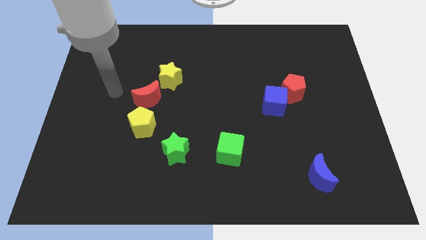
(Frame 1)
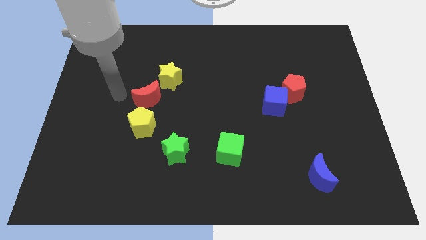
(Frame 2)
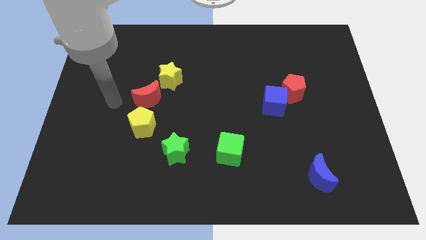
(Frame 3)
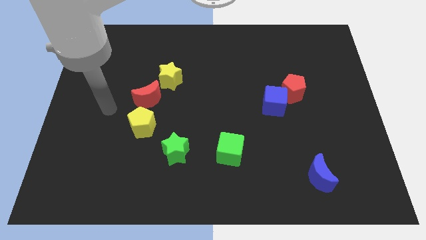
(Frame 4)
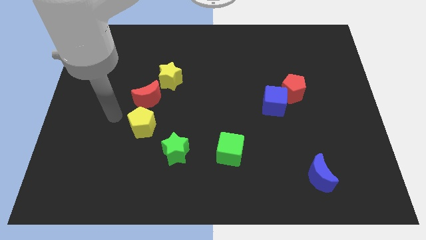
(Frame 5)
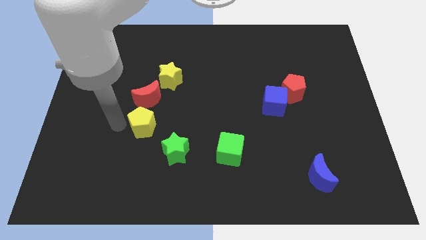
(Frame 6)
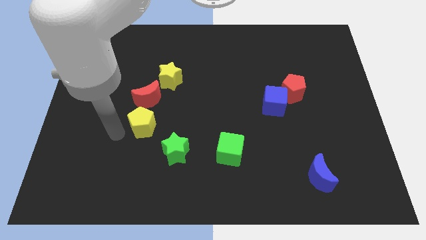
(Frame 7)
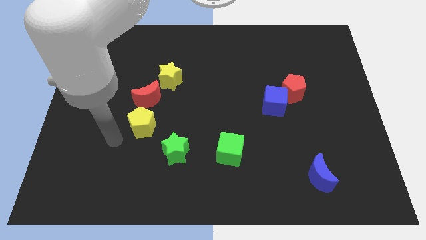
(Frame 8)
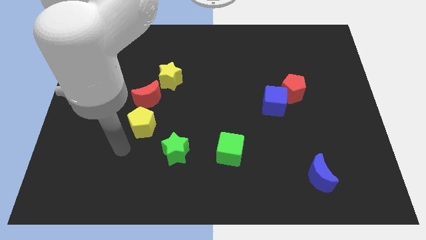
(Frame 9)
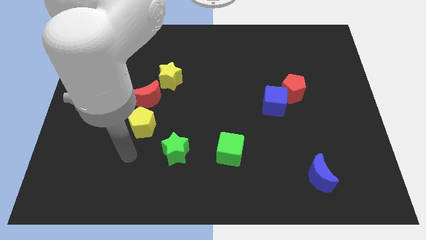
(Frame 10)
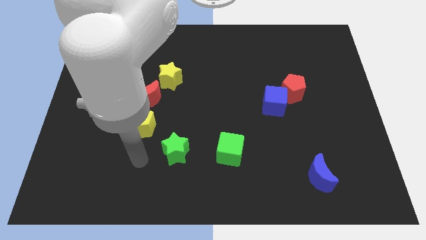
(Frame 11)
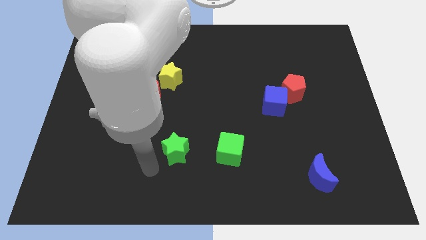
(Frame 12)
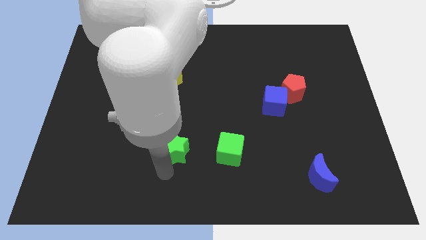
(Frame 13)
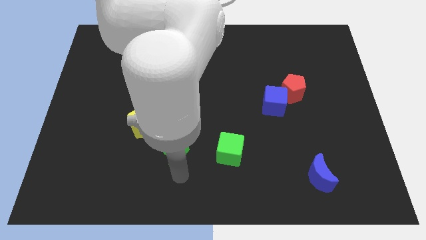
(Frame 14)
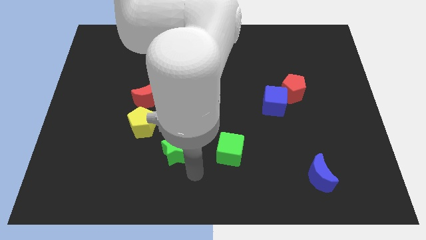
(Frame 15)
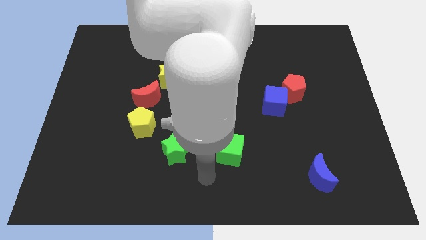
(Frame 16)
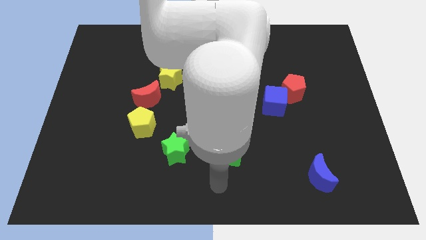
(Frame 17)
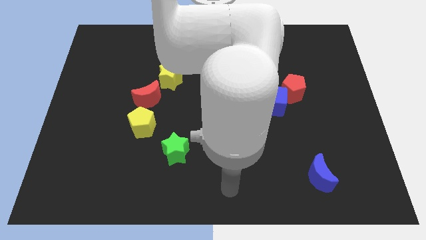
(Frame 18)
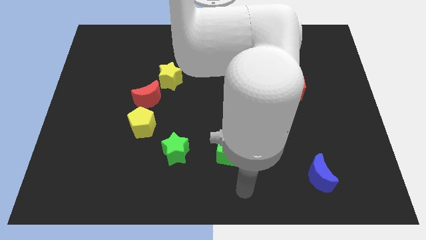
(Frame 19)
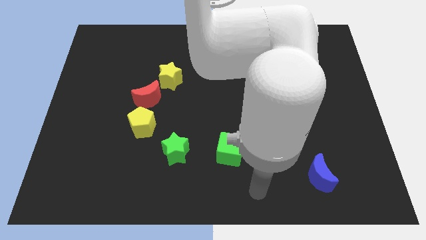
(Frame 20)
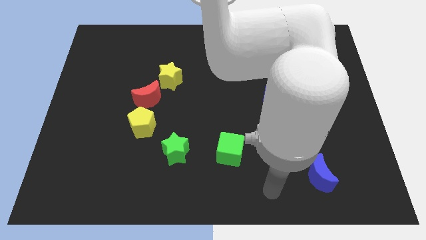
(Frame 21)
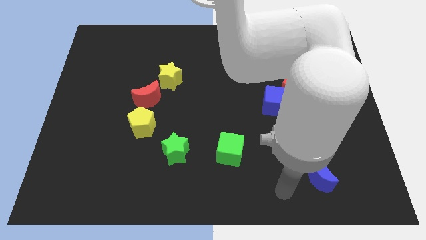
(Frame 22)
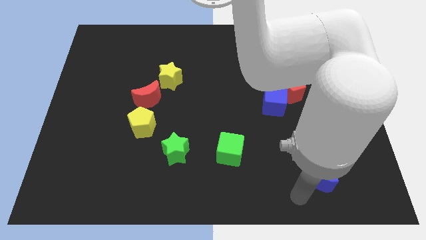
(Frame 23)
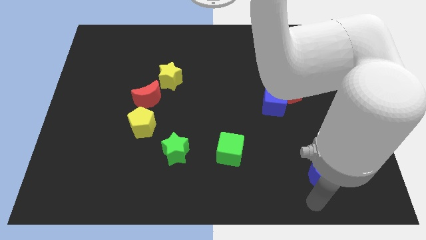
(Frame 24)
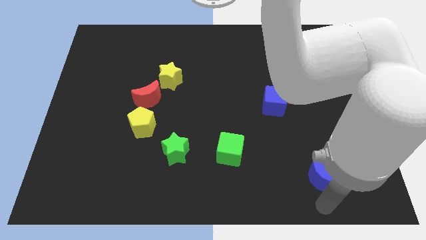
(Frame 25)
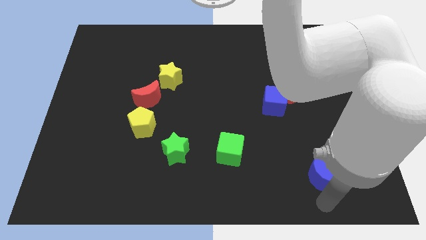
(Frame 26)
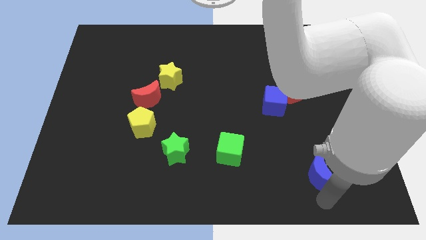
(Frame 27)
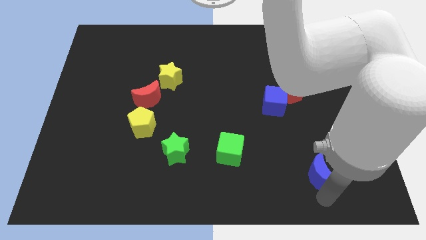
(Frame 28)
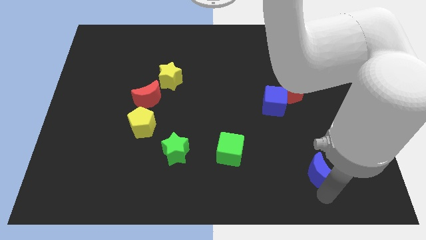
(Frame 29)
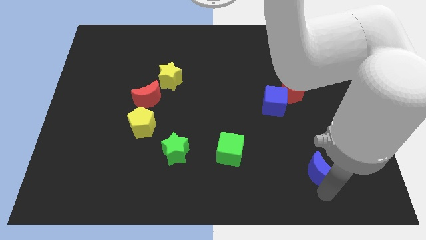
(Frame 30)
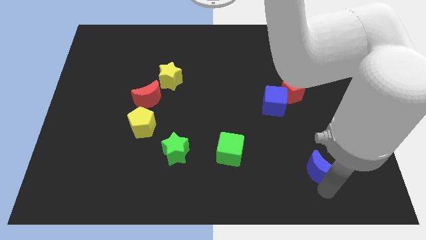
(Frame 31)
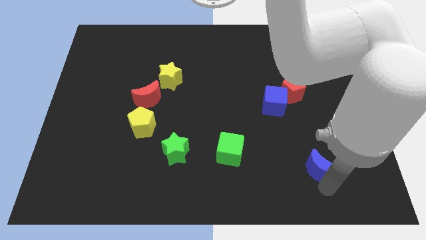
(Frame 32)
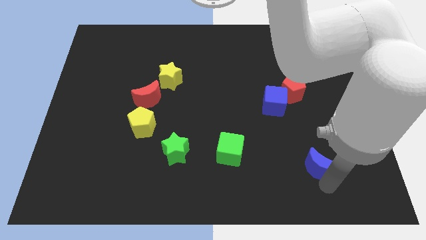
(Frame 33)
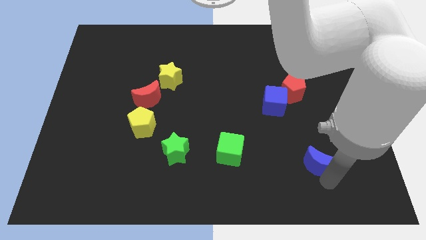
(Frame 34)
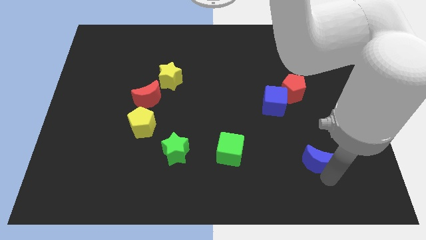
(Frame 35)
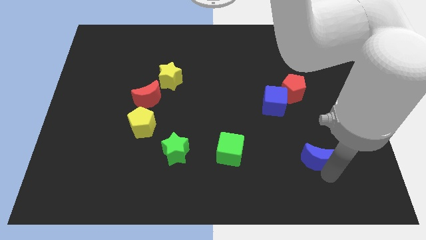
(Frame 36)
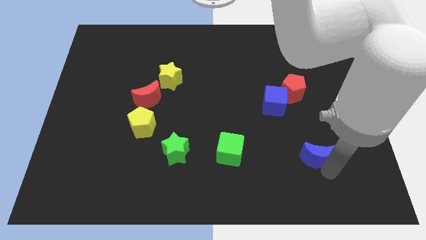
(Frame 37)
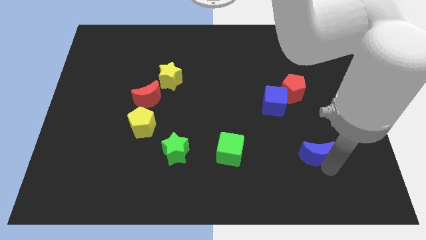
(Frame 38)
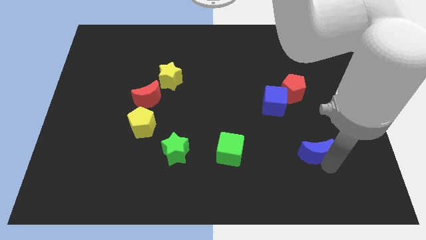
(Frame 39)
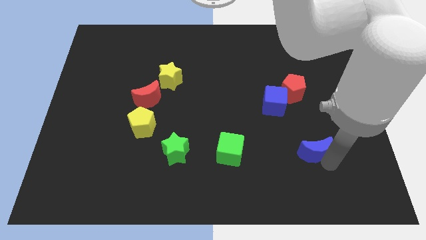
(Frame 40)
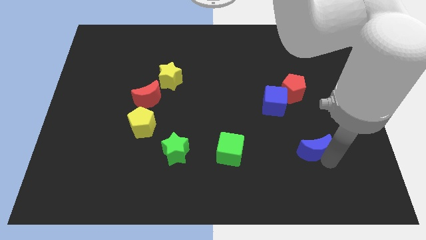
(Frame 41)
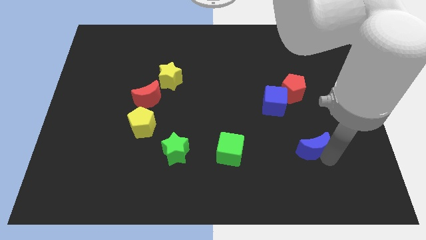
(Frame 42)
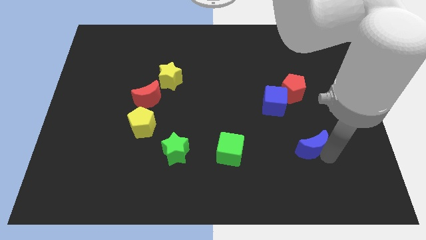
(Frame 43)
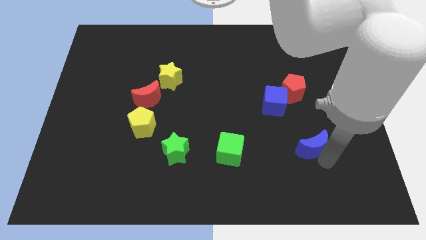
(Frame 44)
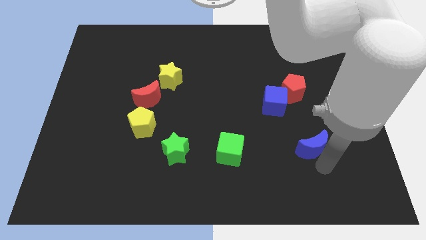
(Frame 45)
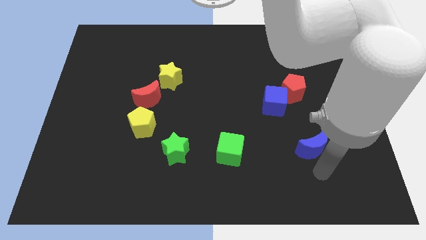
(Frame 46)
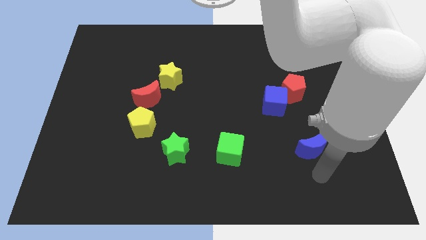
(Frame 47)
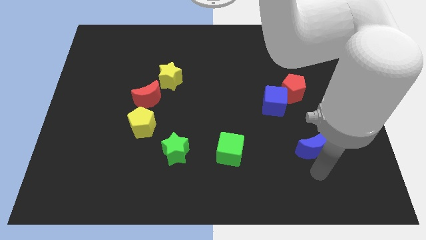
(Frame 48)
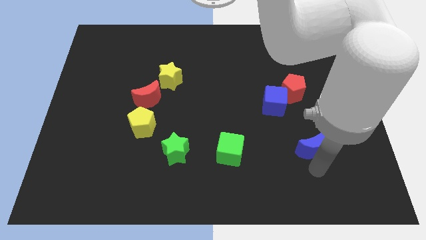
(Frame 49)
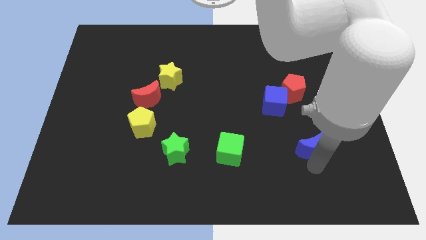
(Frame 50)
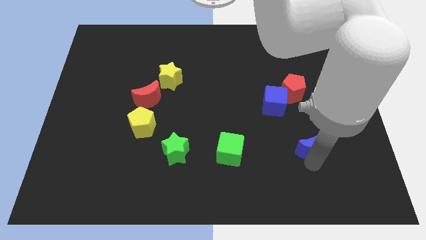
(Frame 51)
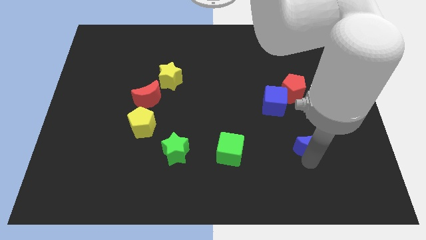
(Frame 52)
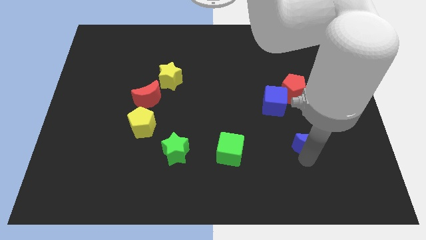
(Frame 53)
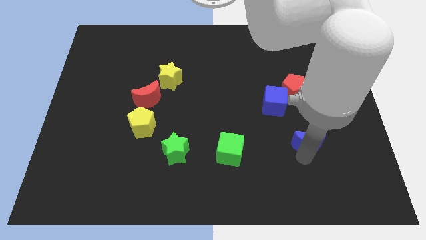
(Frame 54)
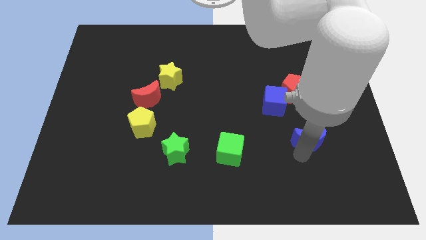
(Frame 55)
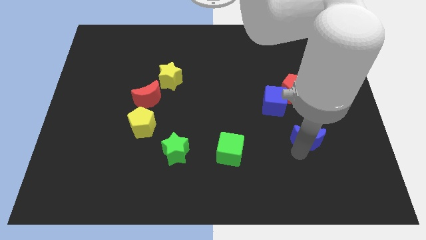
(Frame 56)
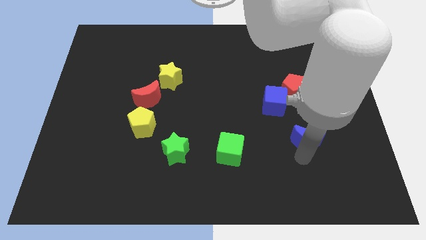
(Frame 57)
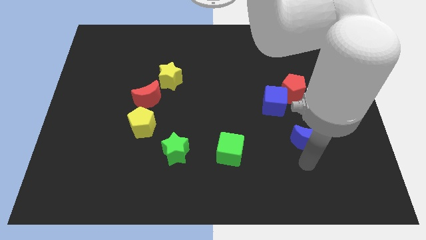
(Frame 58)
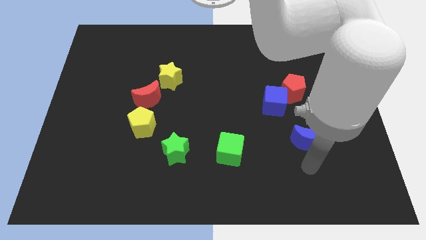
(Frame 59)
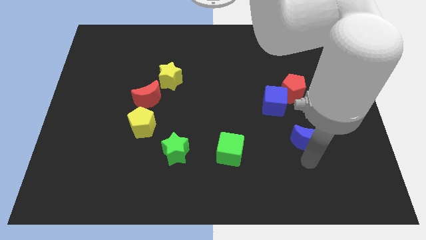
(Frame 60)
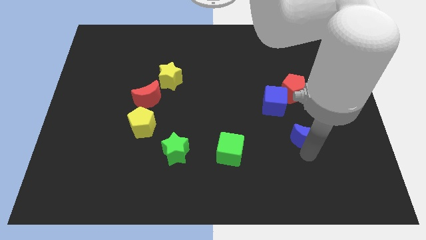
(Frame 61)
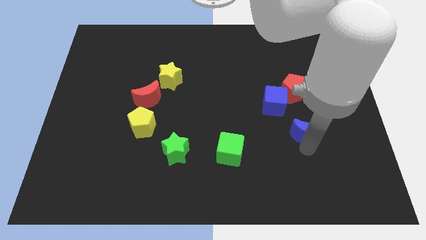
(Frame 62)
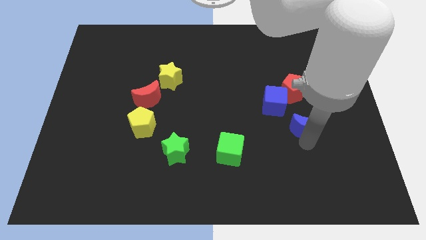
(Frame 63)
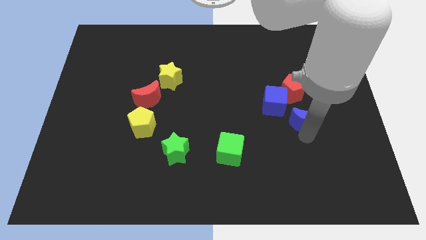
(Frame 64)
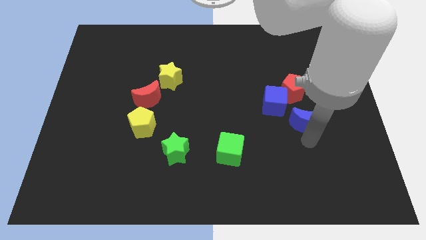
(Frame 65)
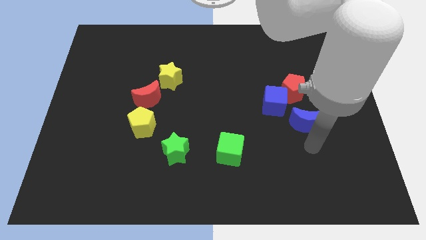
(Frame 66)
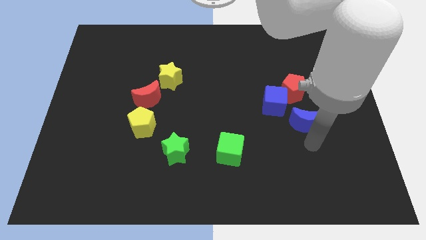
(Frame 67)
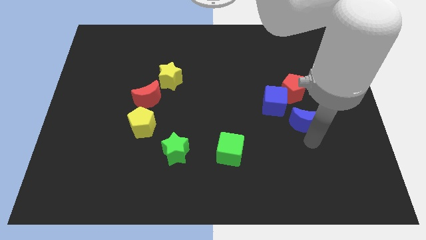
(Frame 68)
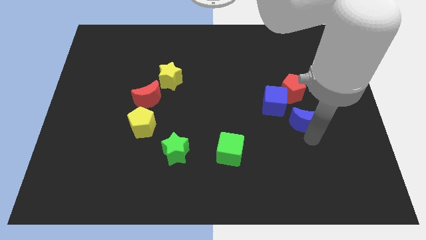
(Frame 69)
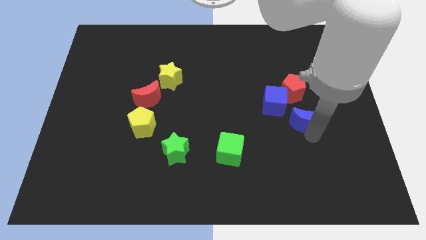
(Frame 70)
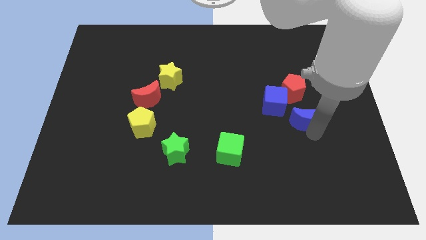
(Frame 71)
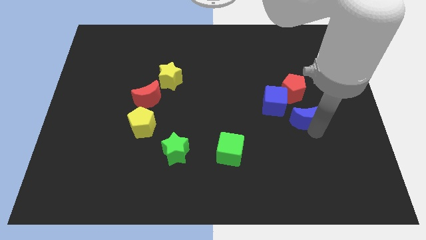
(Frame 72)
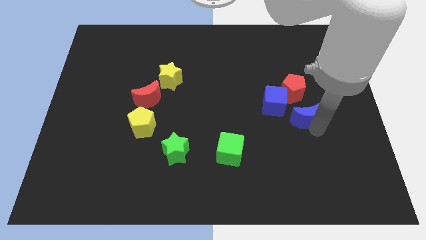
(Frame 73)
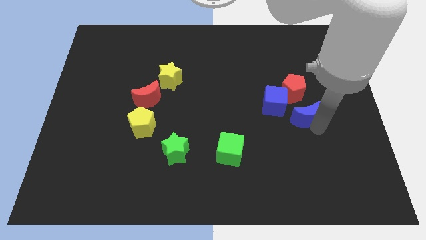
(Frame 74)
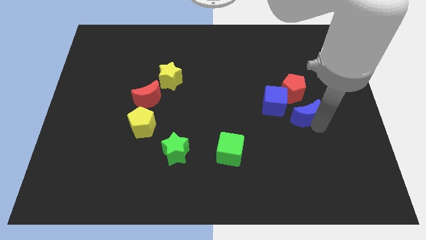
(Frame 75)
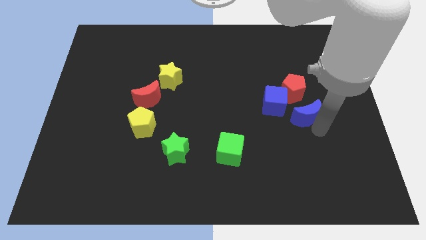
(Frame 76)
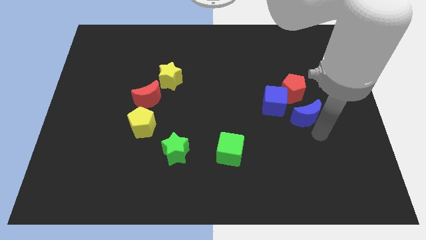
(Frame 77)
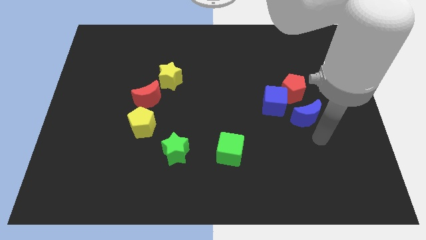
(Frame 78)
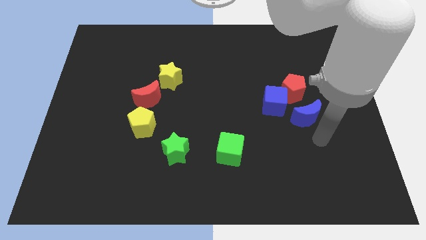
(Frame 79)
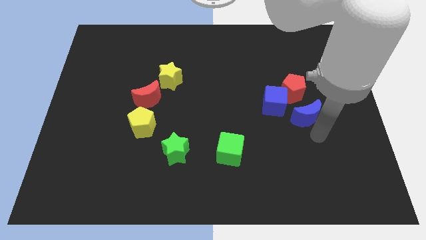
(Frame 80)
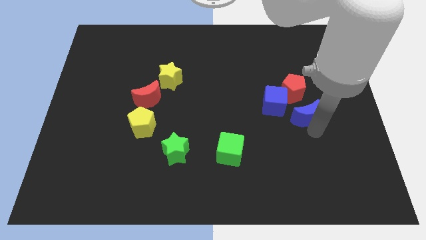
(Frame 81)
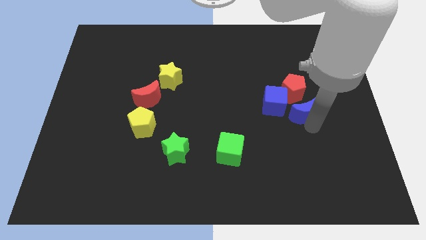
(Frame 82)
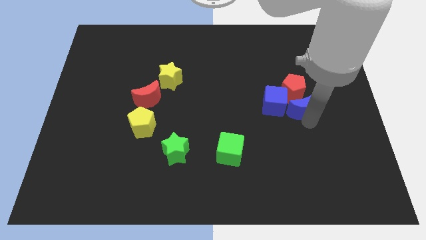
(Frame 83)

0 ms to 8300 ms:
move the blue moon close to the red pentagon
